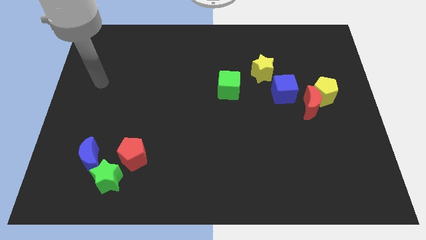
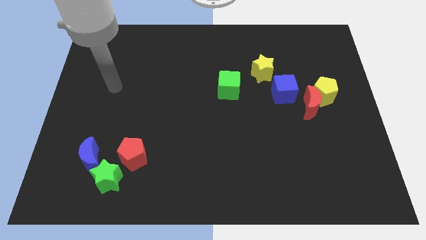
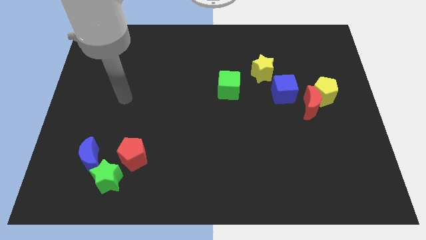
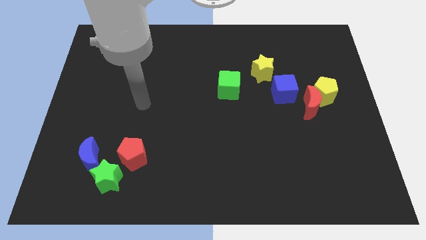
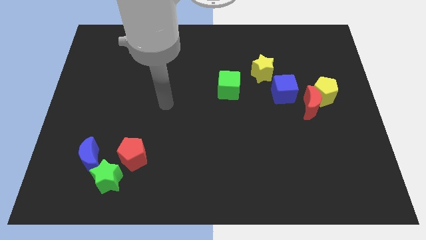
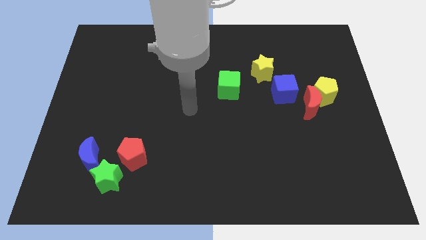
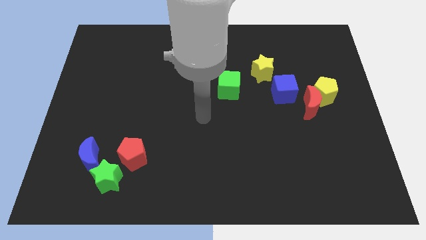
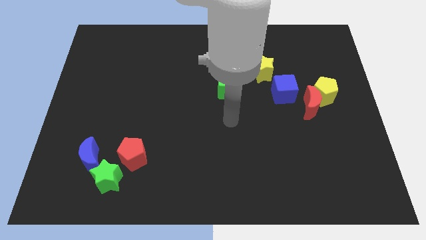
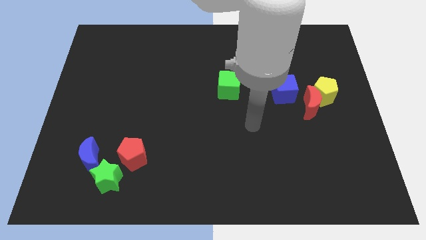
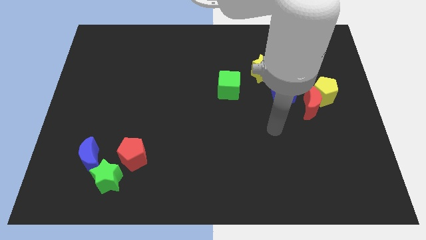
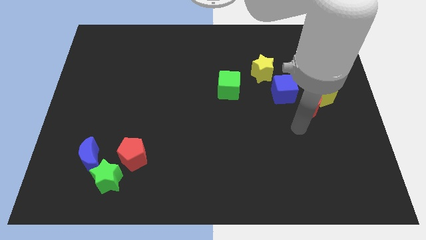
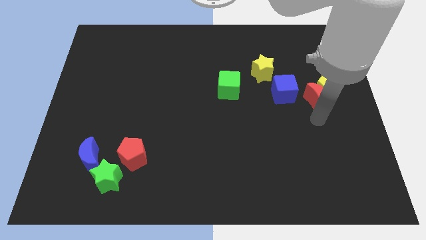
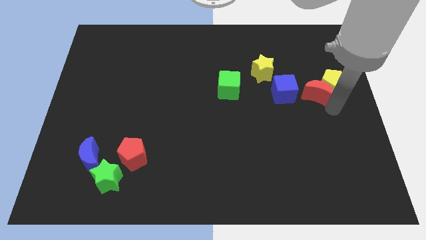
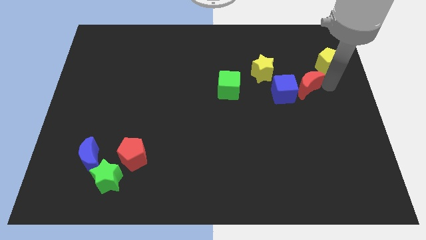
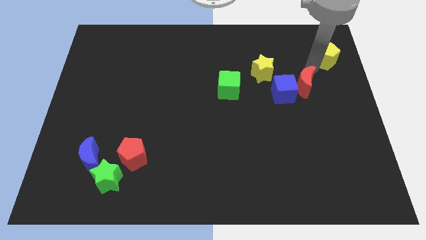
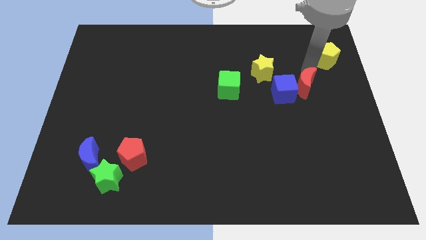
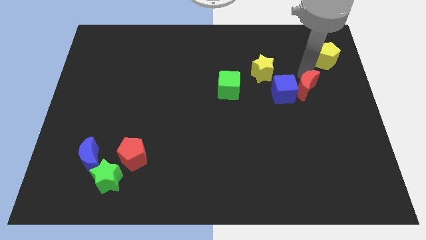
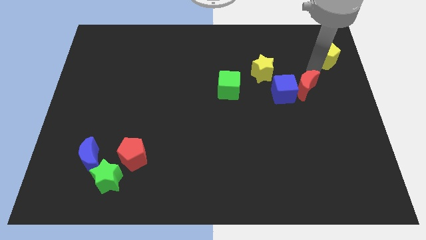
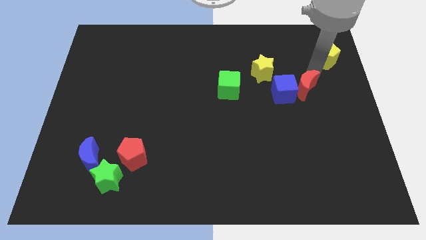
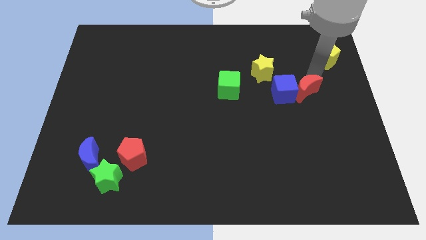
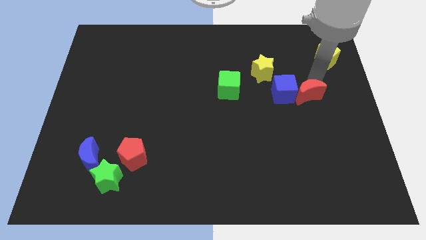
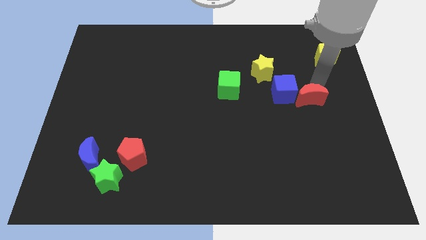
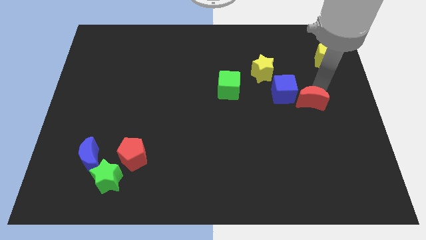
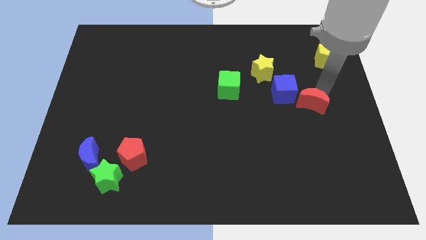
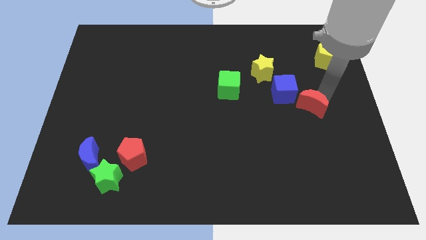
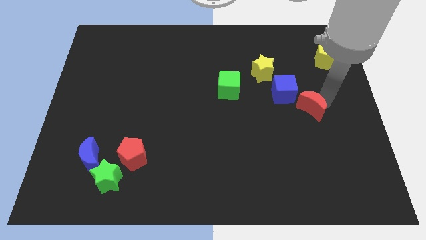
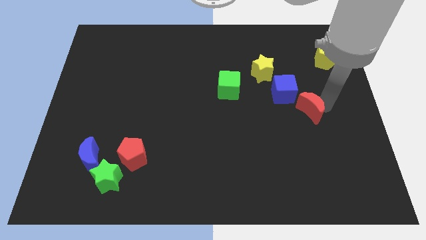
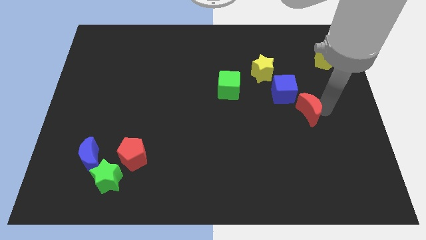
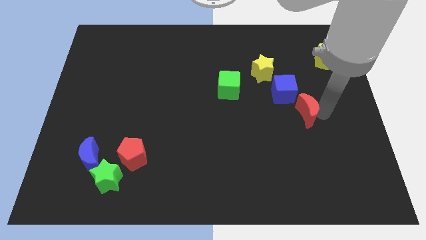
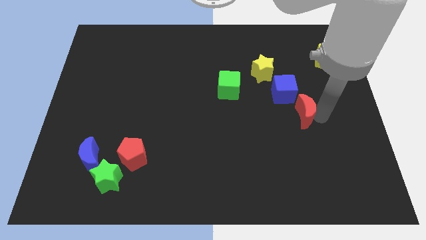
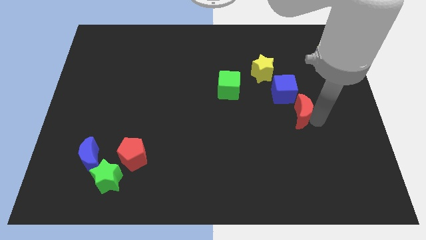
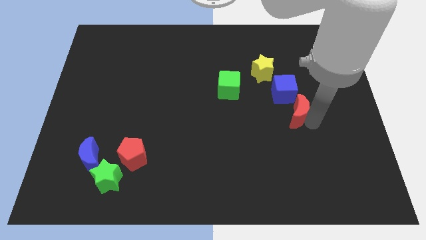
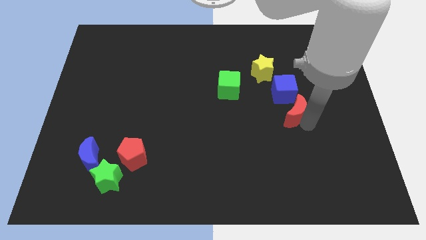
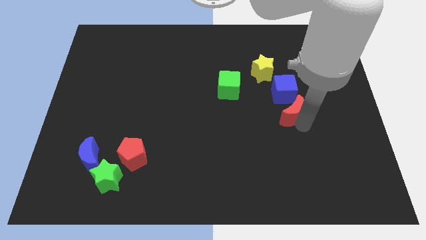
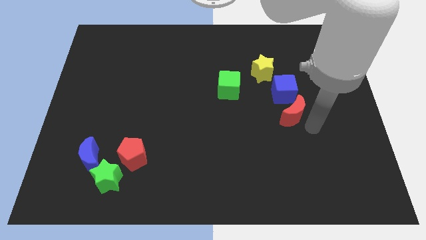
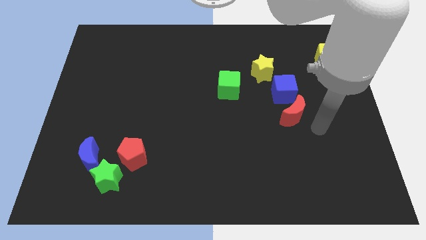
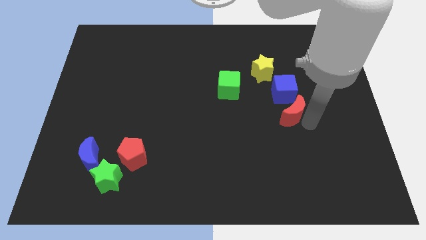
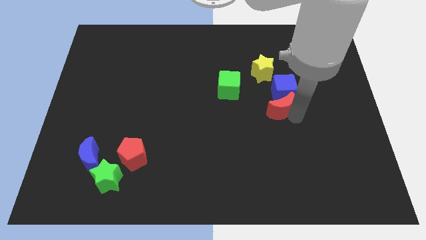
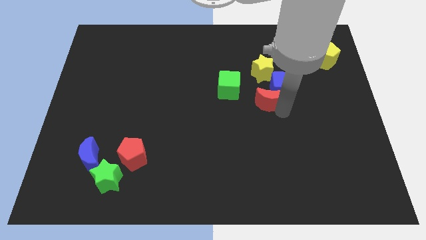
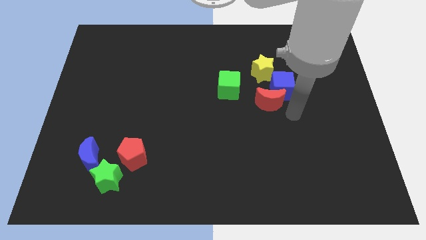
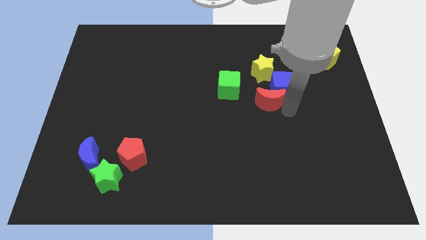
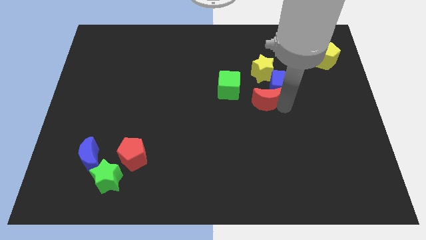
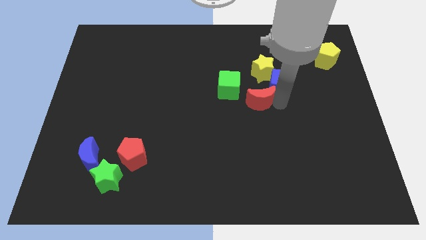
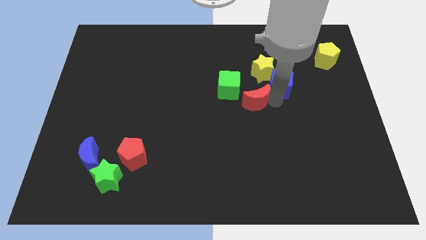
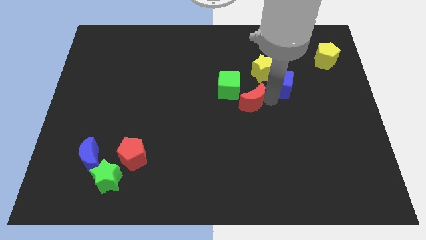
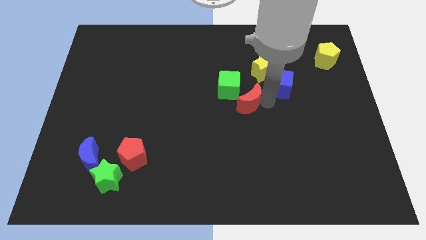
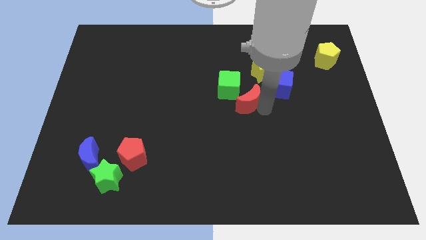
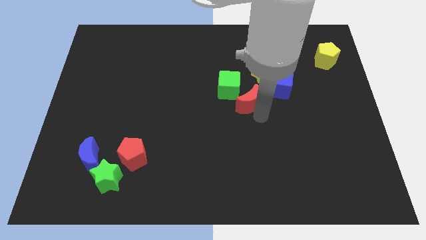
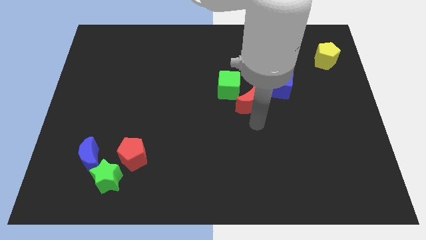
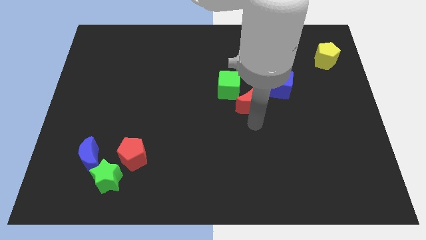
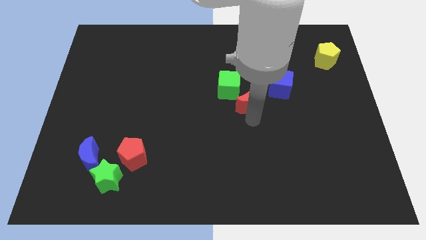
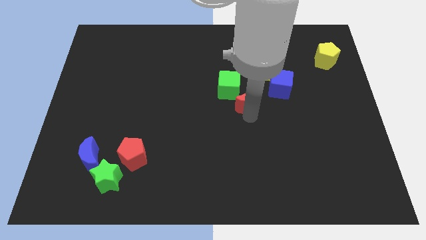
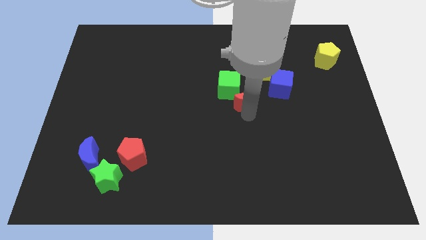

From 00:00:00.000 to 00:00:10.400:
put the red moon towards the green cube

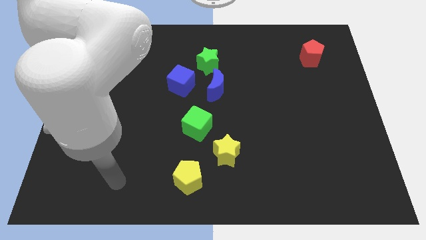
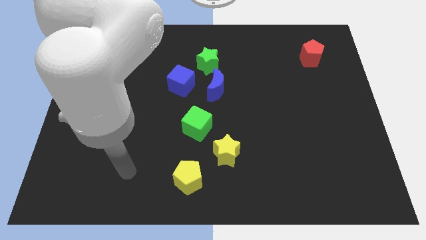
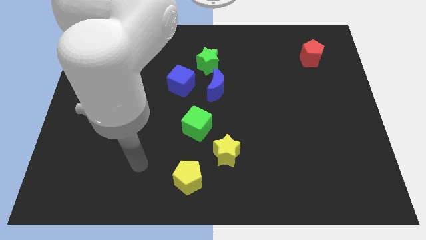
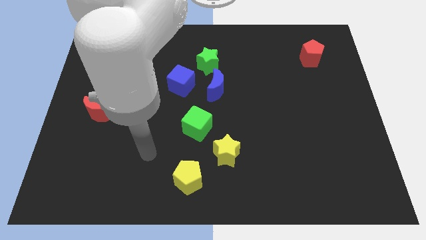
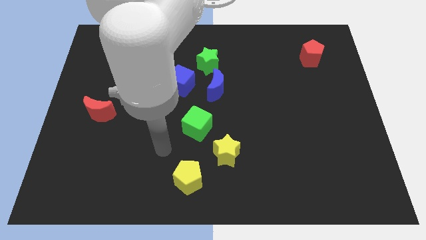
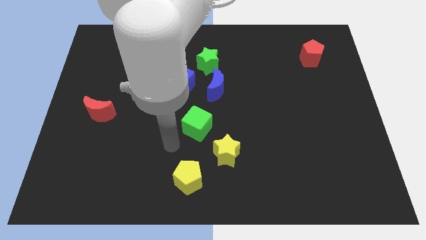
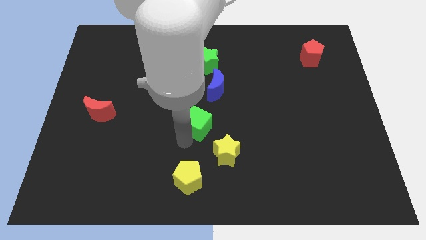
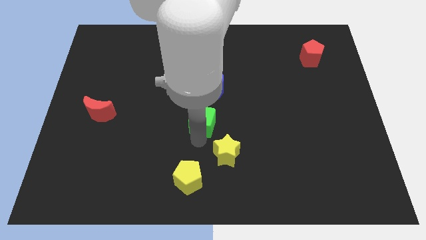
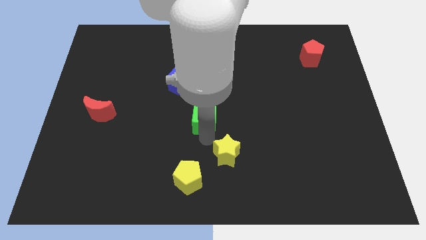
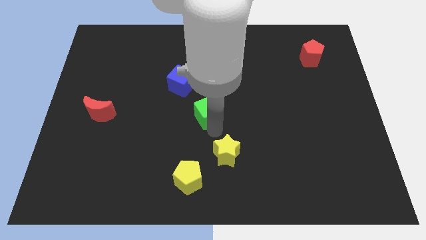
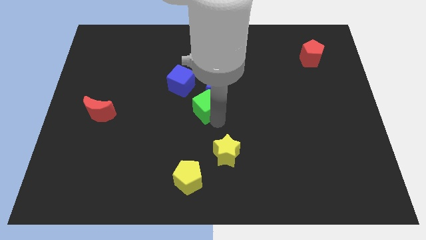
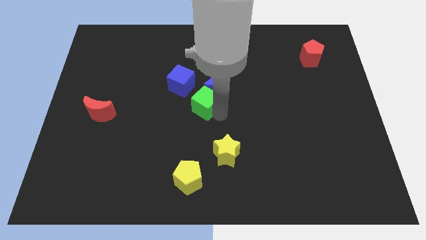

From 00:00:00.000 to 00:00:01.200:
move the blue moon next to the green cube
